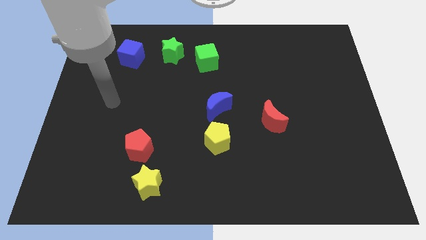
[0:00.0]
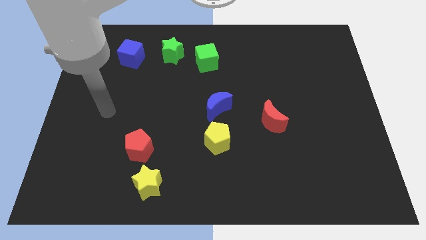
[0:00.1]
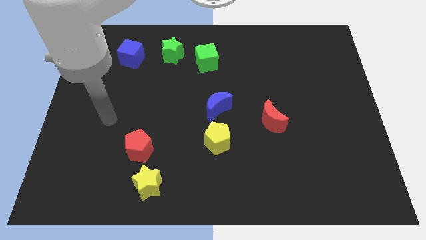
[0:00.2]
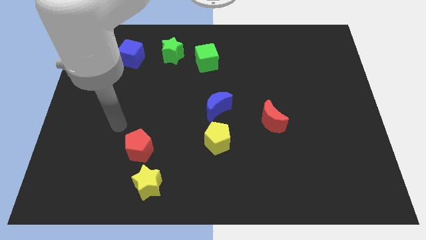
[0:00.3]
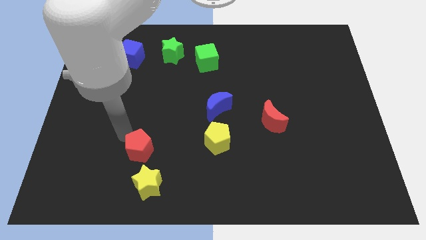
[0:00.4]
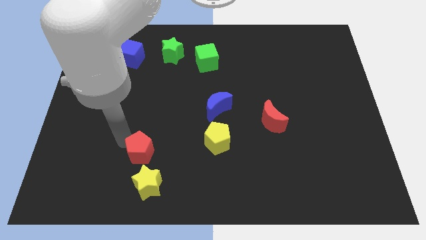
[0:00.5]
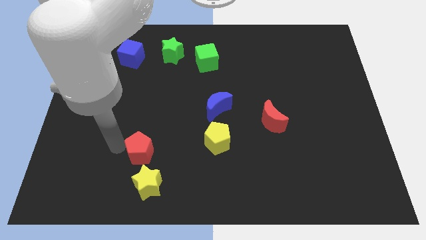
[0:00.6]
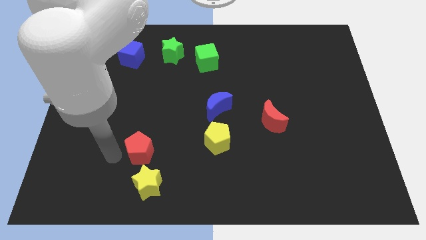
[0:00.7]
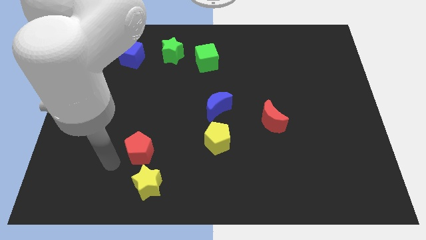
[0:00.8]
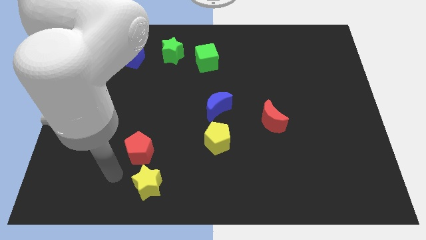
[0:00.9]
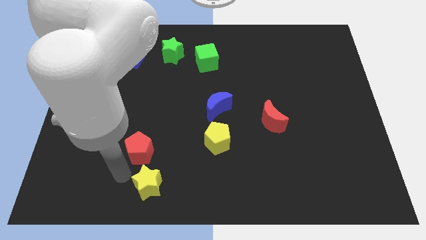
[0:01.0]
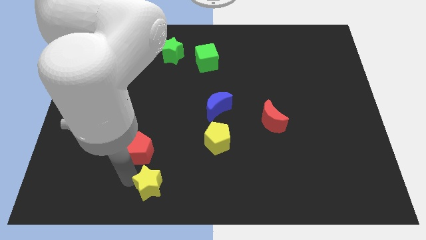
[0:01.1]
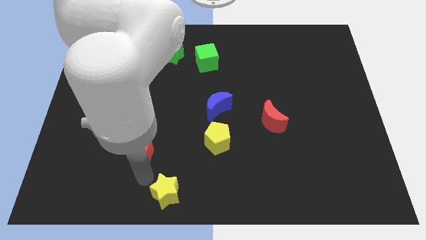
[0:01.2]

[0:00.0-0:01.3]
move the red pentagon away from the yellow star

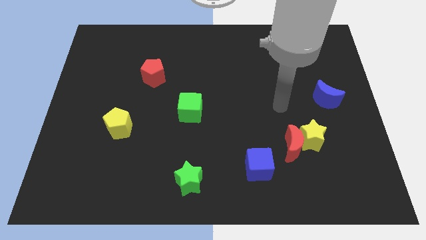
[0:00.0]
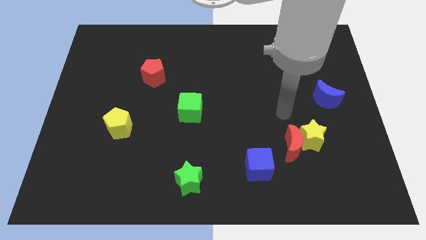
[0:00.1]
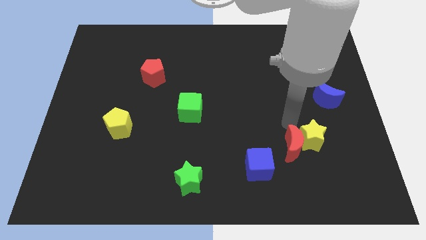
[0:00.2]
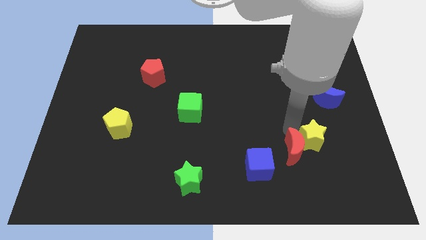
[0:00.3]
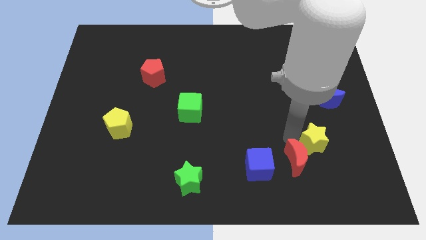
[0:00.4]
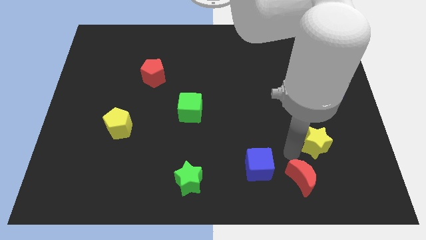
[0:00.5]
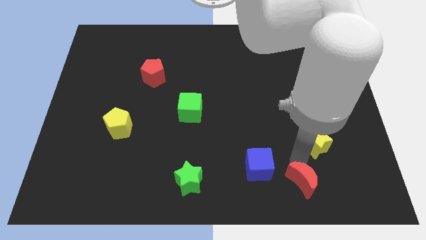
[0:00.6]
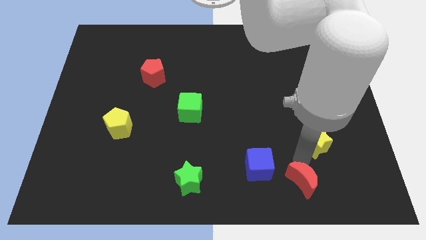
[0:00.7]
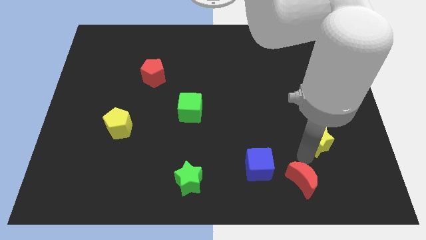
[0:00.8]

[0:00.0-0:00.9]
move the yellow star away from the red moon

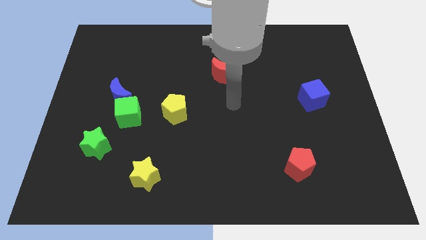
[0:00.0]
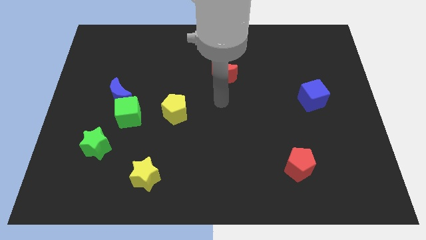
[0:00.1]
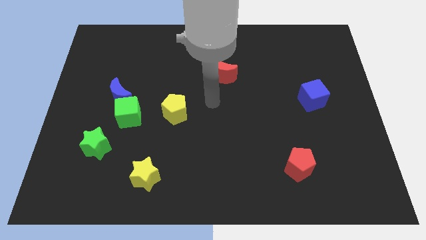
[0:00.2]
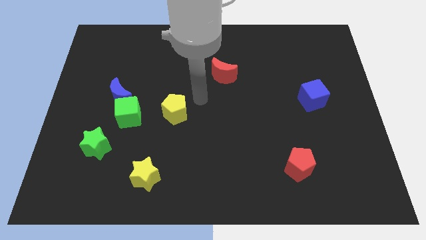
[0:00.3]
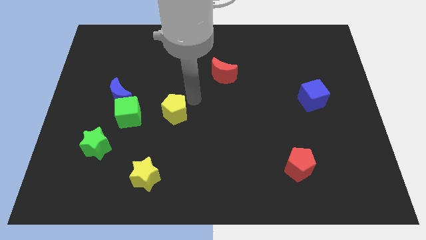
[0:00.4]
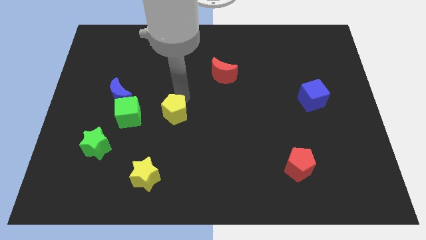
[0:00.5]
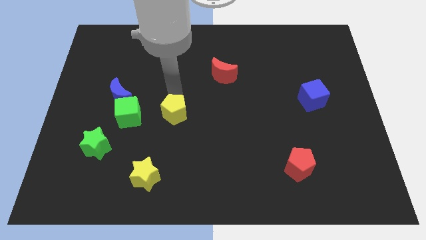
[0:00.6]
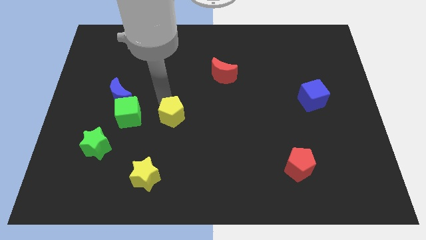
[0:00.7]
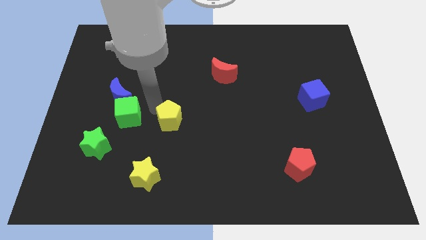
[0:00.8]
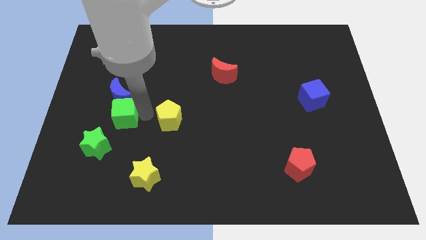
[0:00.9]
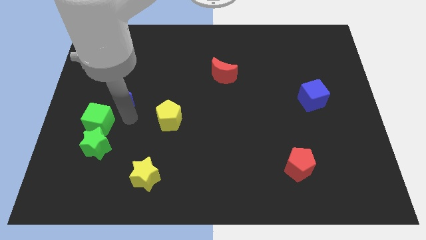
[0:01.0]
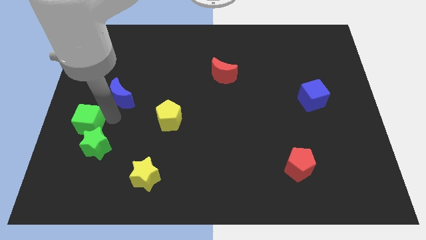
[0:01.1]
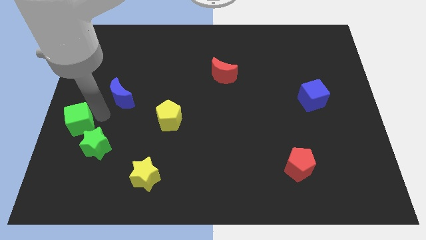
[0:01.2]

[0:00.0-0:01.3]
pull the blue moon apart from the green cube

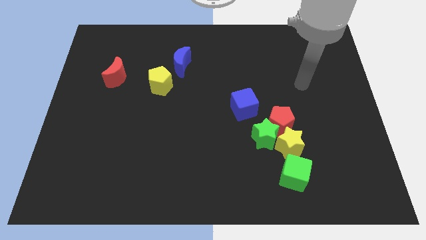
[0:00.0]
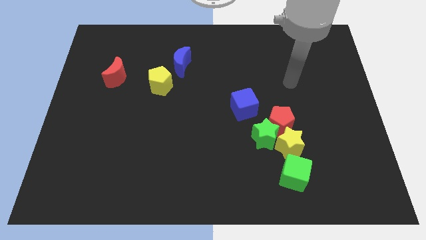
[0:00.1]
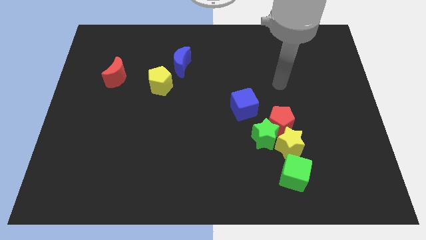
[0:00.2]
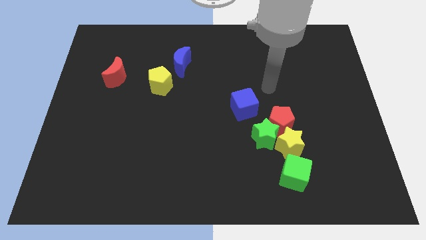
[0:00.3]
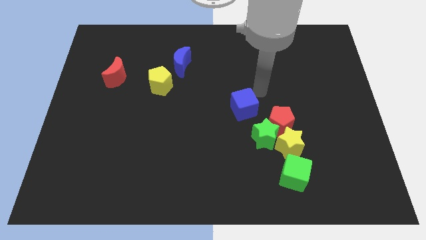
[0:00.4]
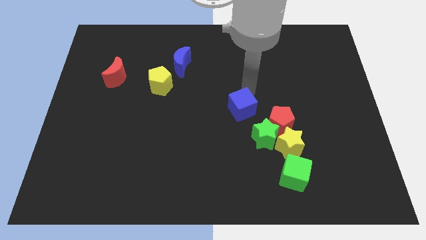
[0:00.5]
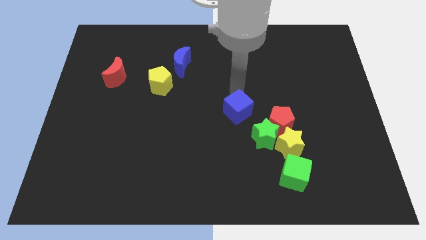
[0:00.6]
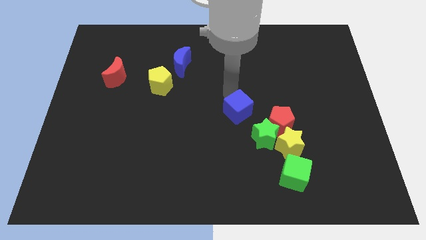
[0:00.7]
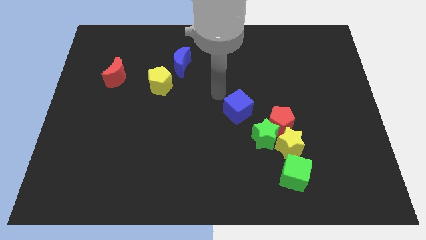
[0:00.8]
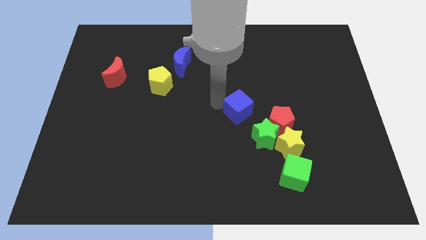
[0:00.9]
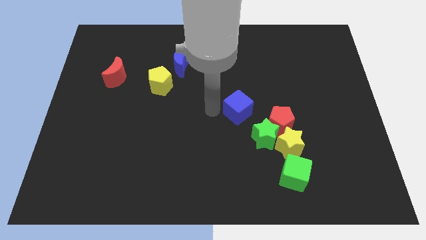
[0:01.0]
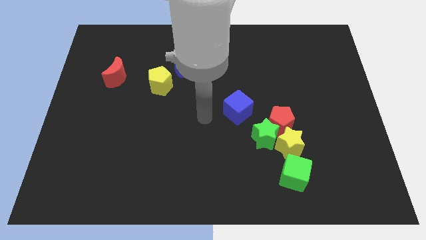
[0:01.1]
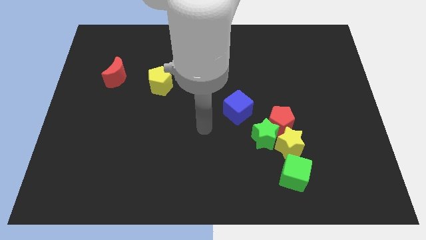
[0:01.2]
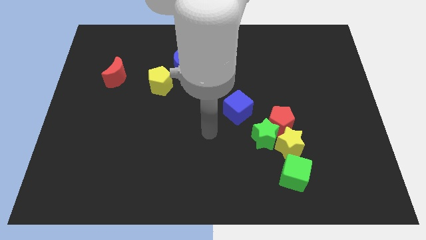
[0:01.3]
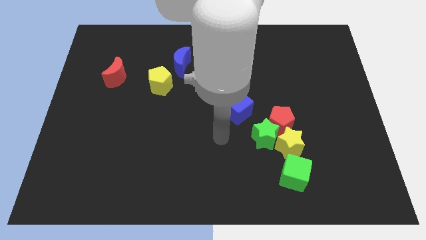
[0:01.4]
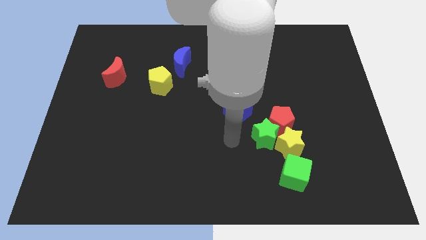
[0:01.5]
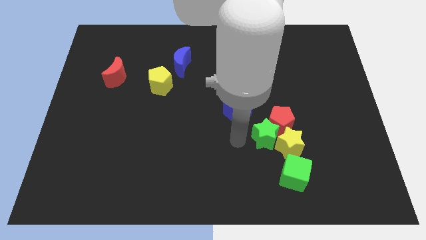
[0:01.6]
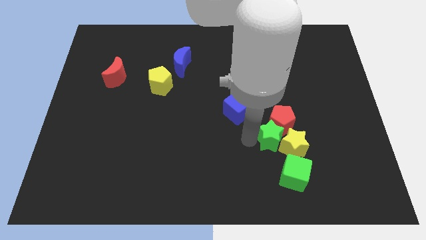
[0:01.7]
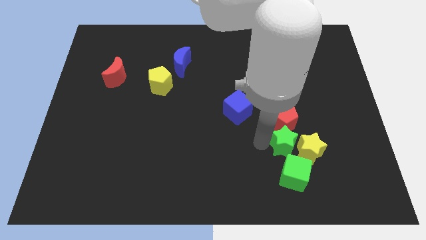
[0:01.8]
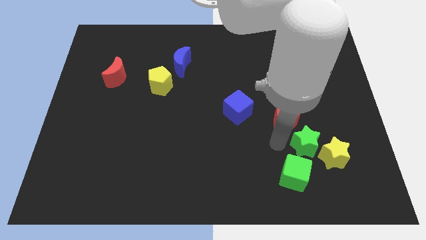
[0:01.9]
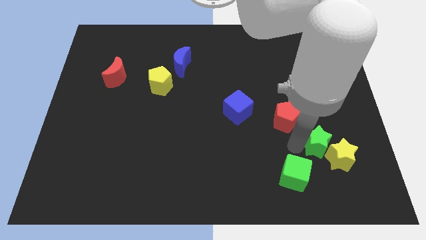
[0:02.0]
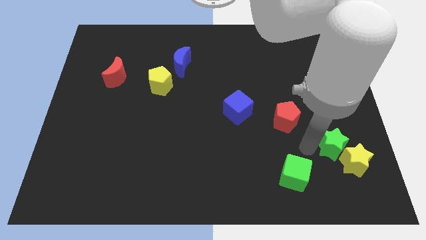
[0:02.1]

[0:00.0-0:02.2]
move the yellow star away from the group

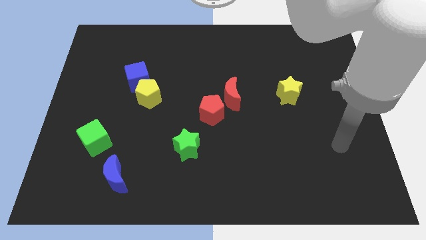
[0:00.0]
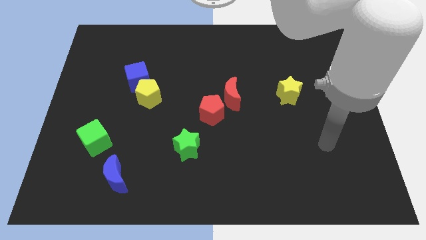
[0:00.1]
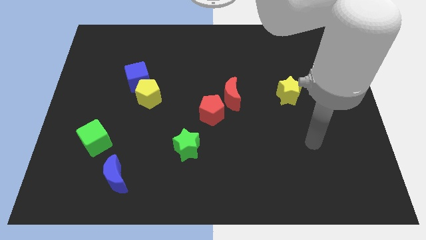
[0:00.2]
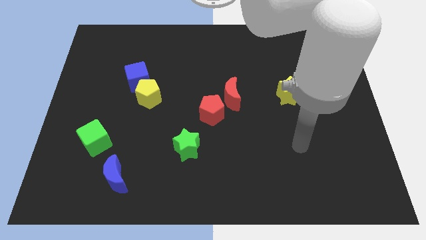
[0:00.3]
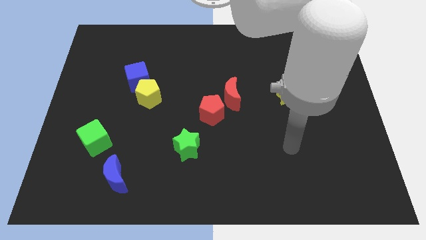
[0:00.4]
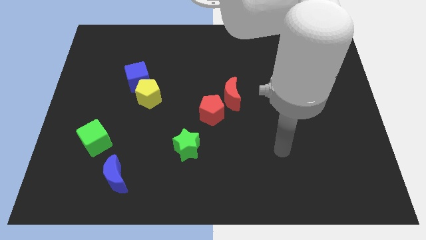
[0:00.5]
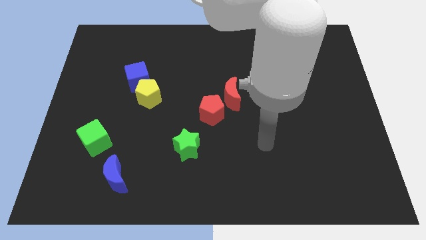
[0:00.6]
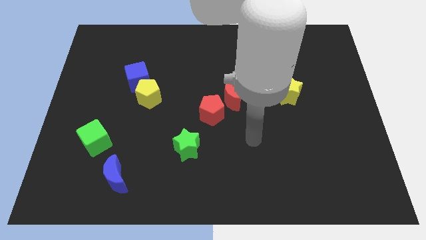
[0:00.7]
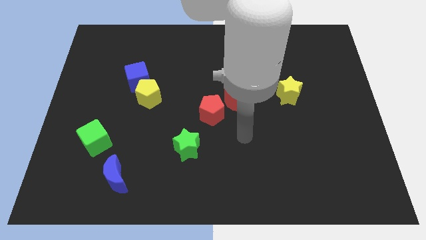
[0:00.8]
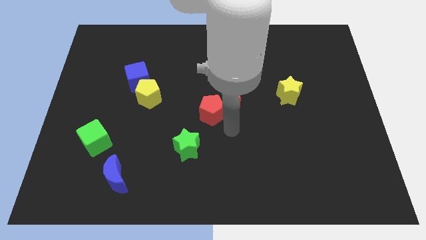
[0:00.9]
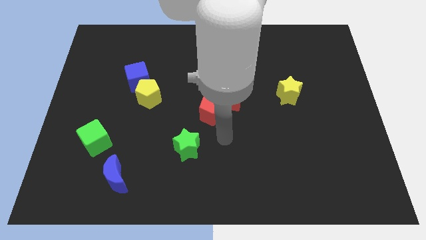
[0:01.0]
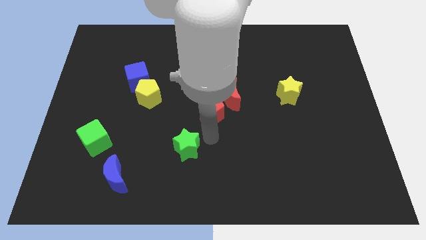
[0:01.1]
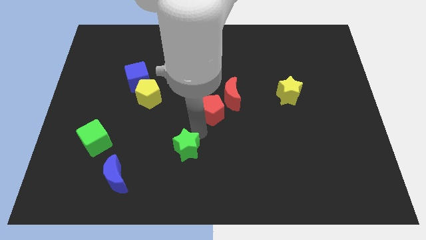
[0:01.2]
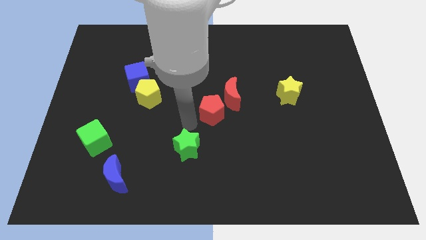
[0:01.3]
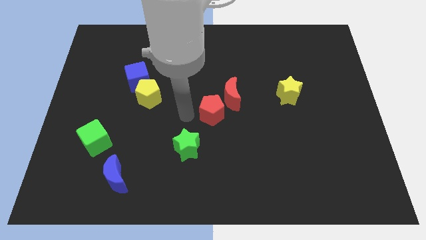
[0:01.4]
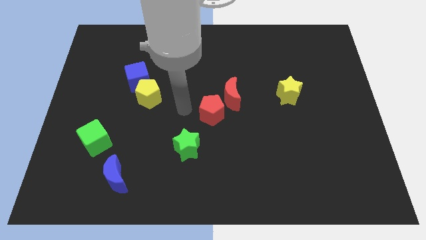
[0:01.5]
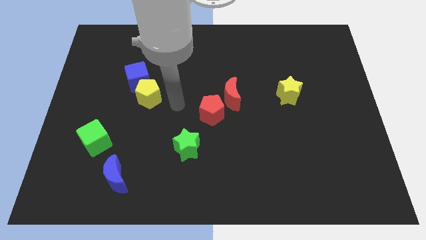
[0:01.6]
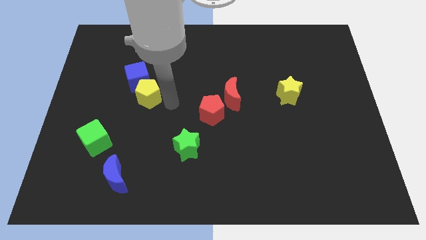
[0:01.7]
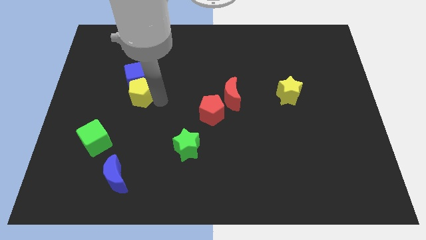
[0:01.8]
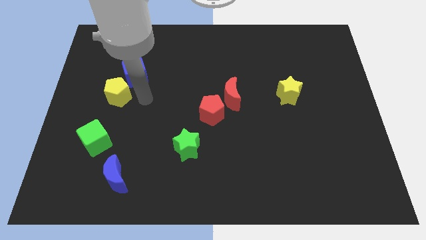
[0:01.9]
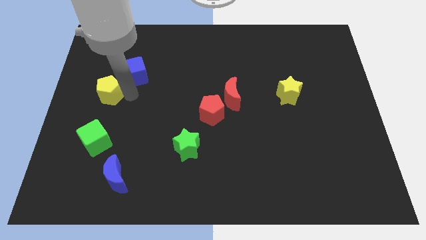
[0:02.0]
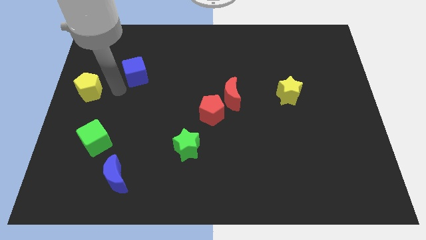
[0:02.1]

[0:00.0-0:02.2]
move the blue cube away from the yellow pentagon

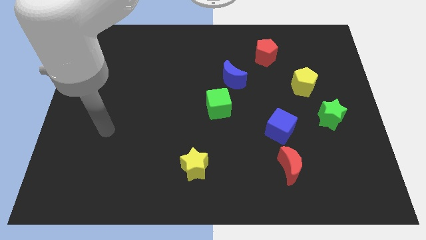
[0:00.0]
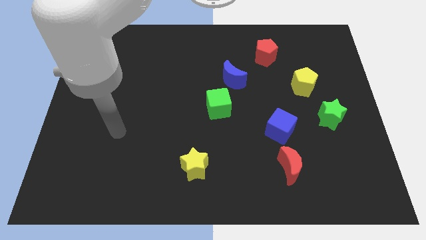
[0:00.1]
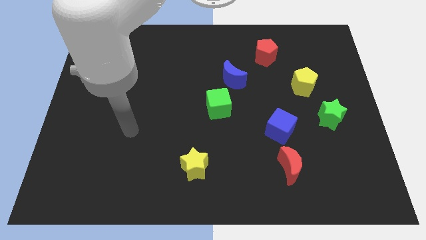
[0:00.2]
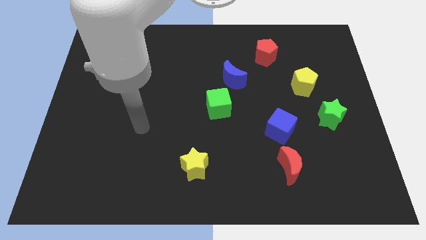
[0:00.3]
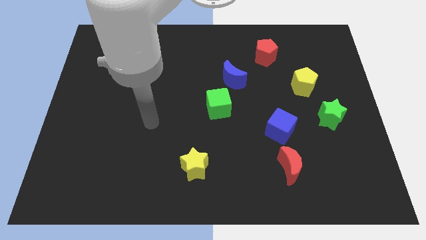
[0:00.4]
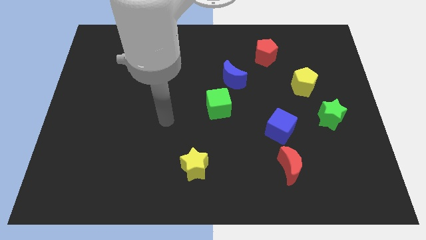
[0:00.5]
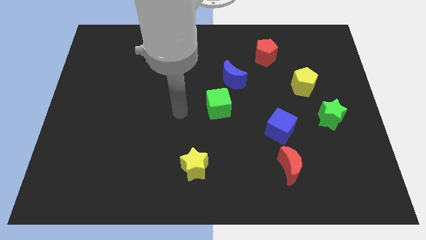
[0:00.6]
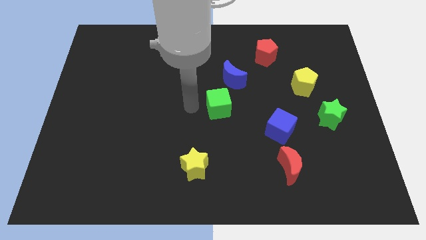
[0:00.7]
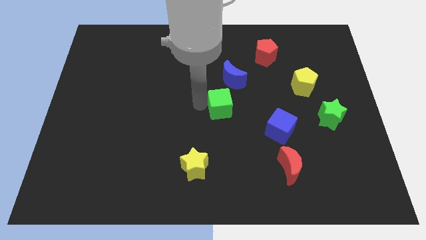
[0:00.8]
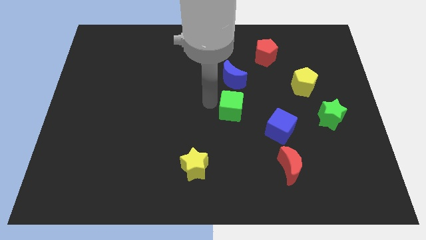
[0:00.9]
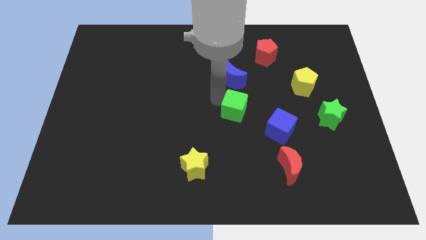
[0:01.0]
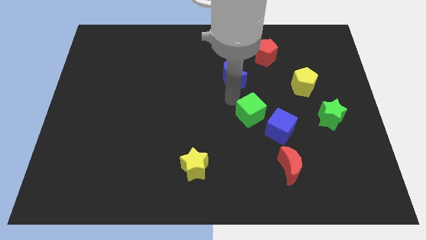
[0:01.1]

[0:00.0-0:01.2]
move the blue moon away from the green cube

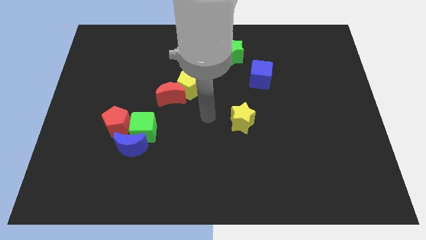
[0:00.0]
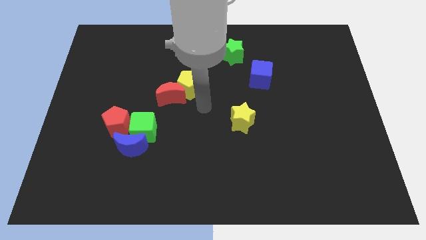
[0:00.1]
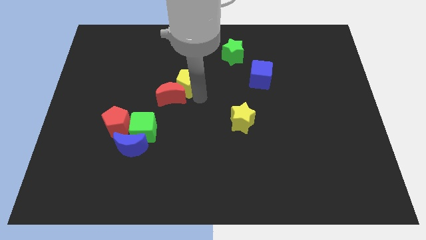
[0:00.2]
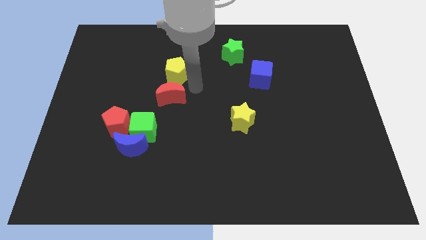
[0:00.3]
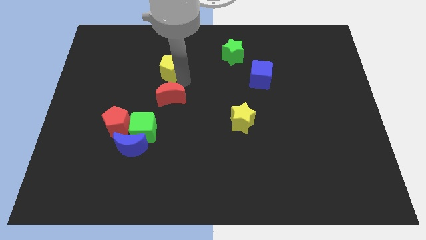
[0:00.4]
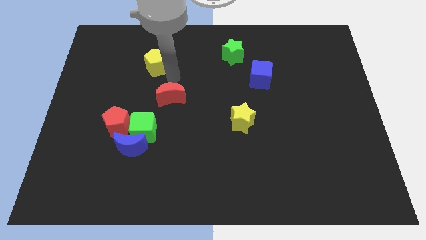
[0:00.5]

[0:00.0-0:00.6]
move the red moon away from the yellow pentagon
